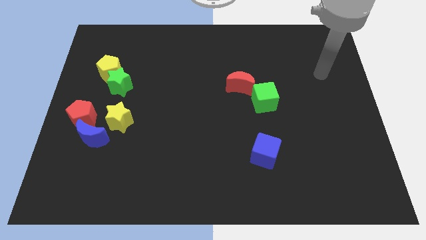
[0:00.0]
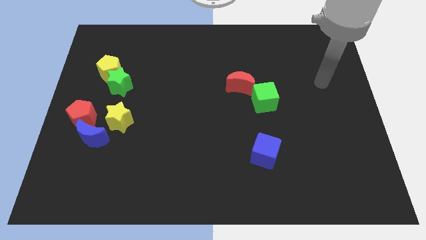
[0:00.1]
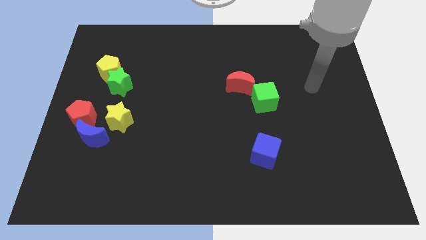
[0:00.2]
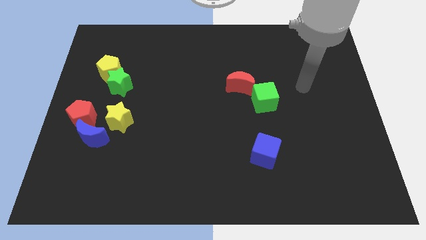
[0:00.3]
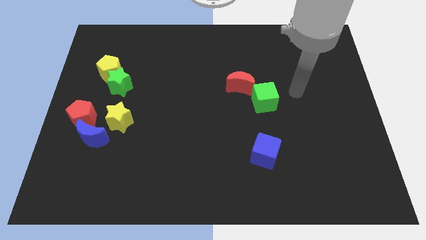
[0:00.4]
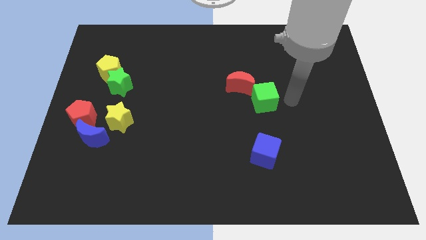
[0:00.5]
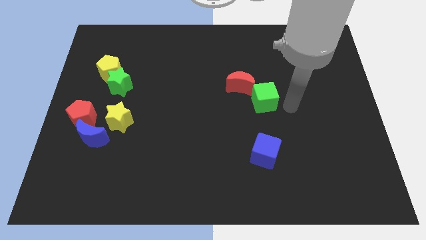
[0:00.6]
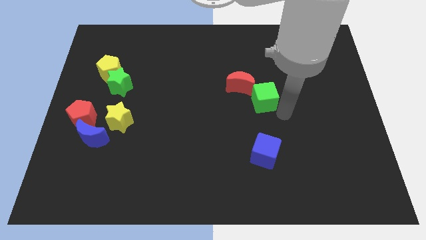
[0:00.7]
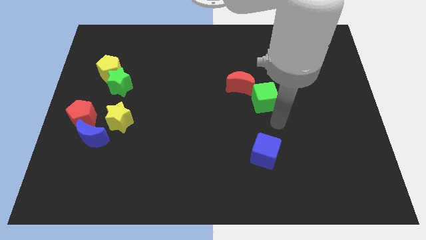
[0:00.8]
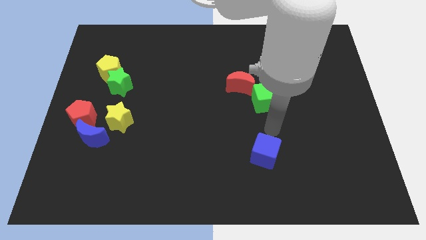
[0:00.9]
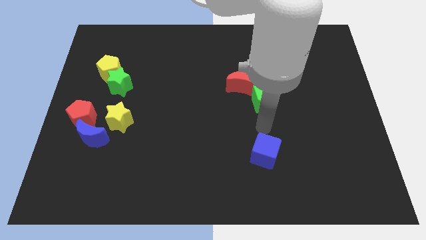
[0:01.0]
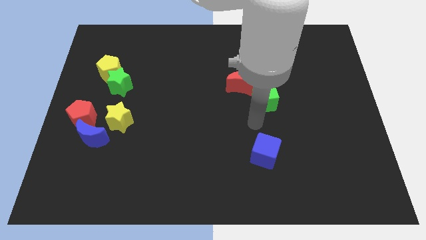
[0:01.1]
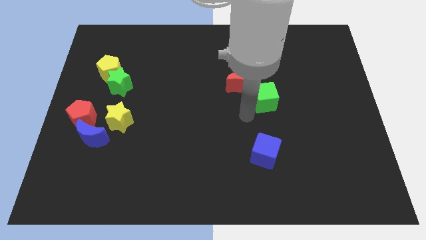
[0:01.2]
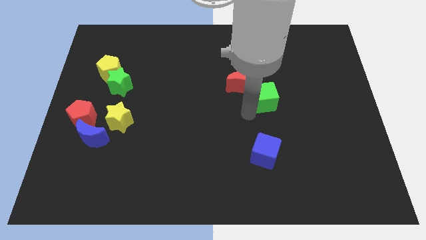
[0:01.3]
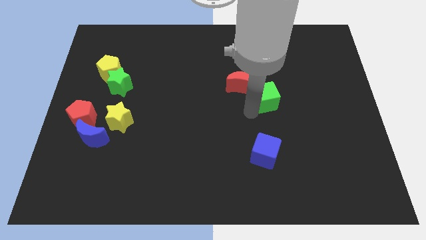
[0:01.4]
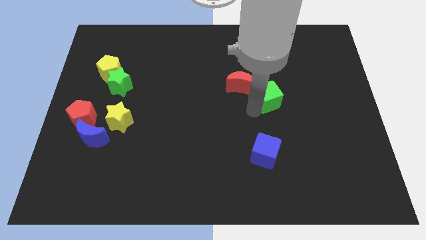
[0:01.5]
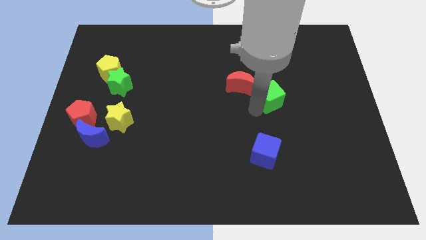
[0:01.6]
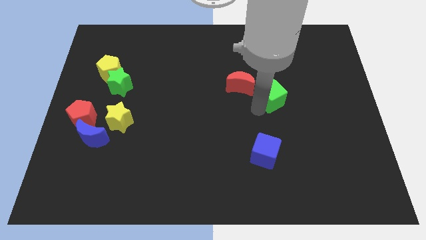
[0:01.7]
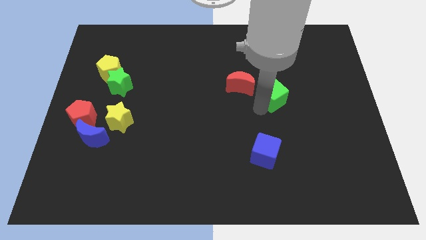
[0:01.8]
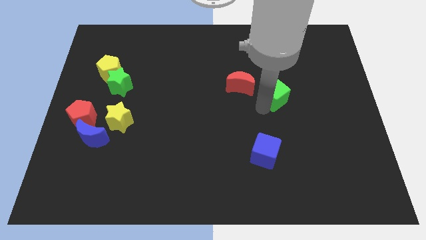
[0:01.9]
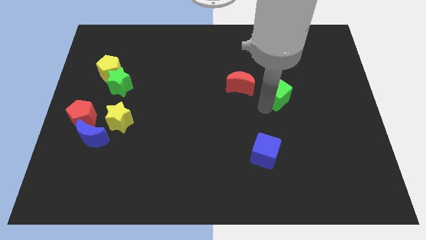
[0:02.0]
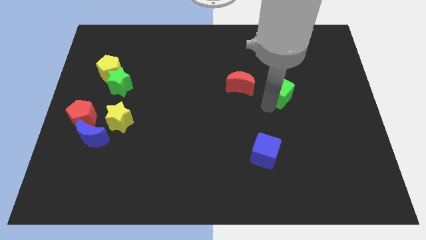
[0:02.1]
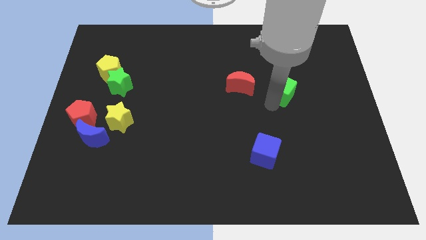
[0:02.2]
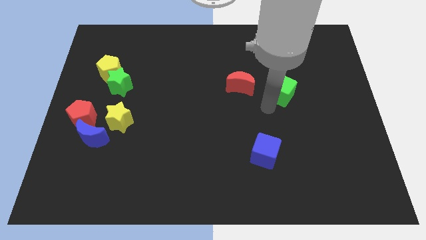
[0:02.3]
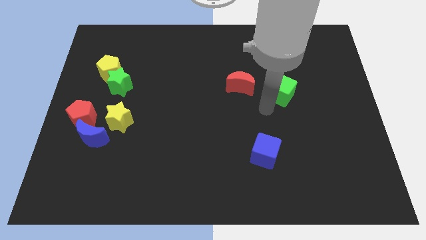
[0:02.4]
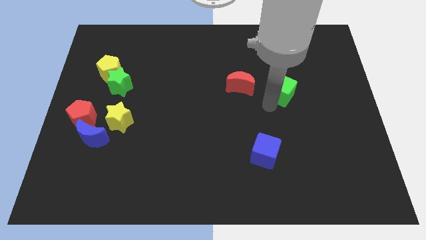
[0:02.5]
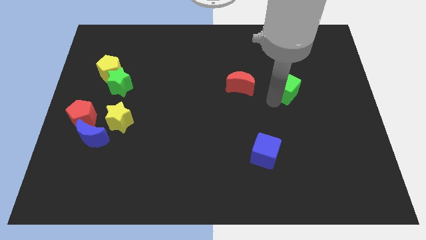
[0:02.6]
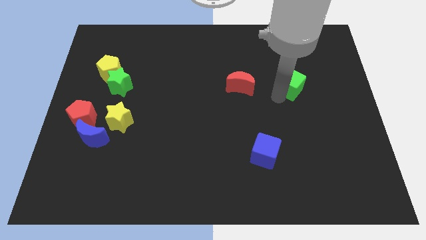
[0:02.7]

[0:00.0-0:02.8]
push the green cube up and right a little

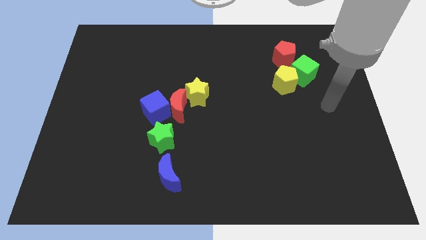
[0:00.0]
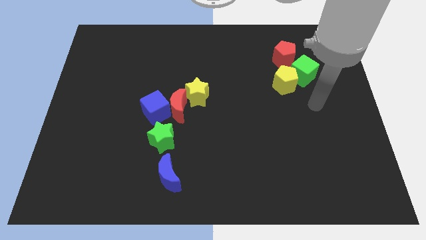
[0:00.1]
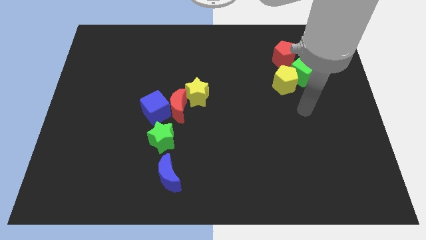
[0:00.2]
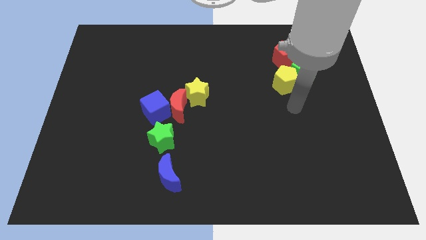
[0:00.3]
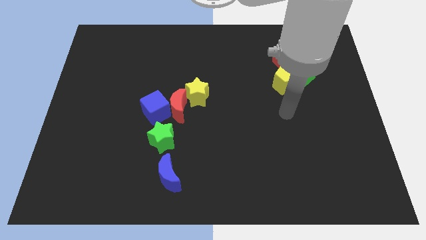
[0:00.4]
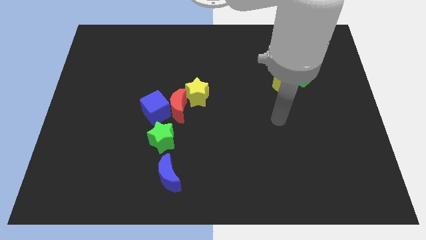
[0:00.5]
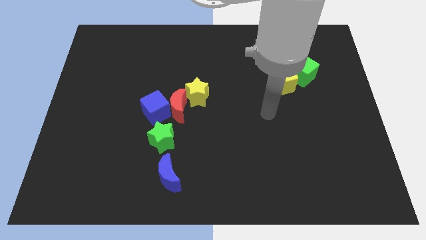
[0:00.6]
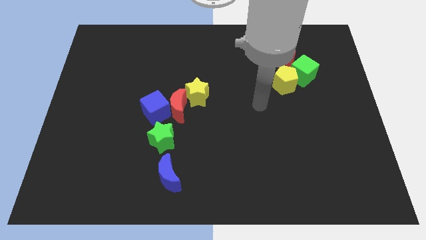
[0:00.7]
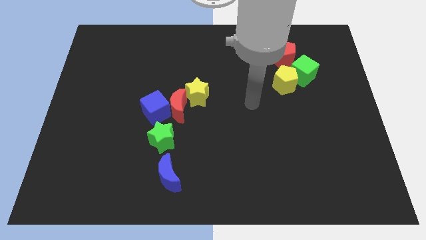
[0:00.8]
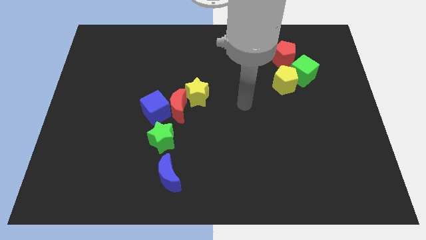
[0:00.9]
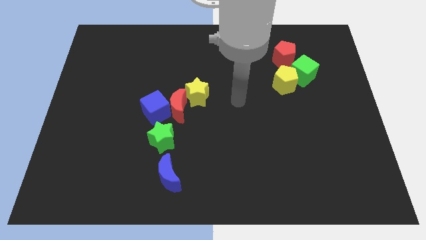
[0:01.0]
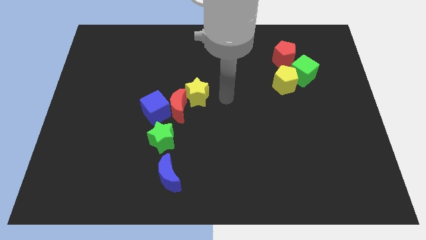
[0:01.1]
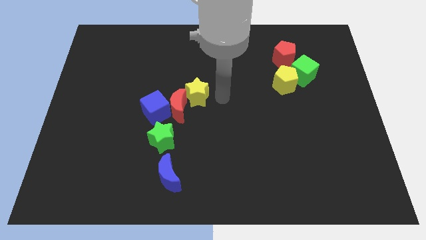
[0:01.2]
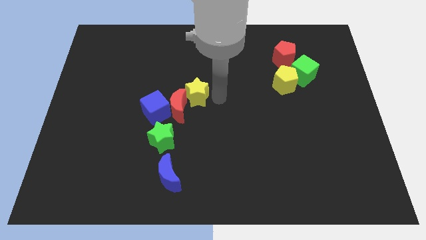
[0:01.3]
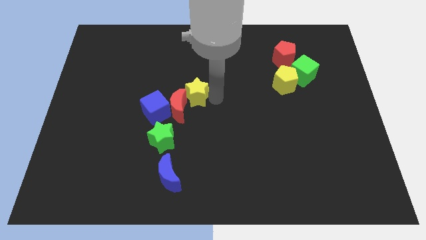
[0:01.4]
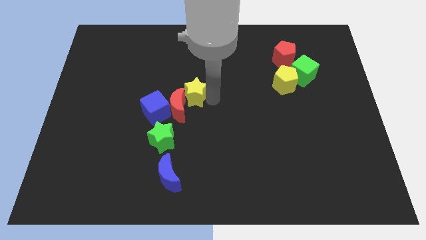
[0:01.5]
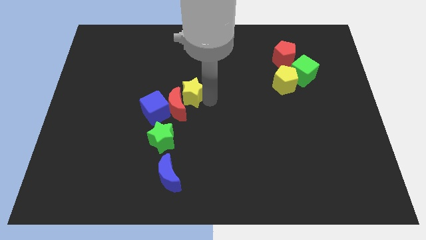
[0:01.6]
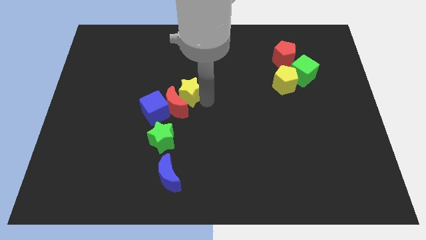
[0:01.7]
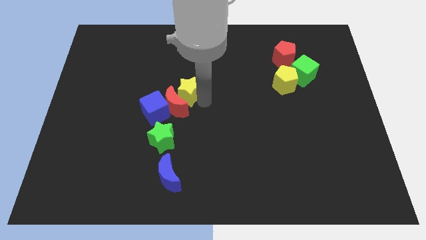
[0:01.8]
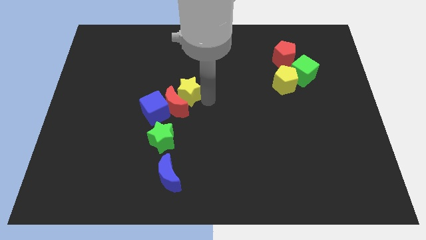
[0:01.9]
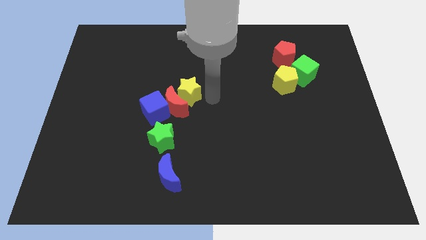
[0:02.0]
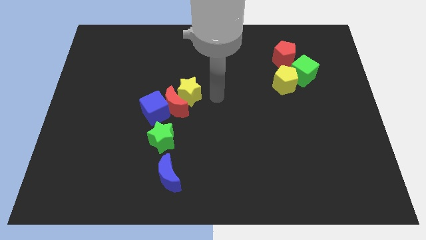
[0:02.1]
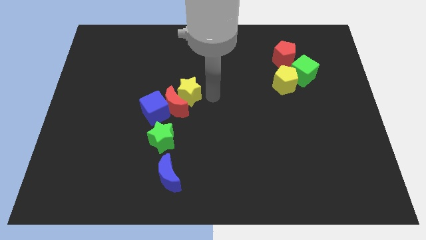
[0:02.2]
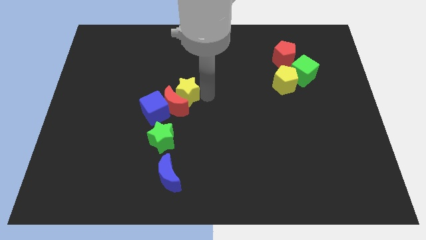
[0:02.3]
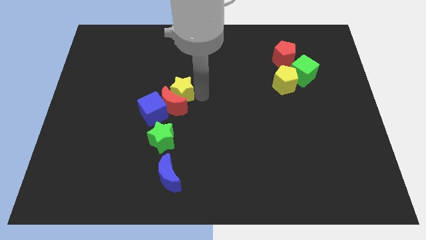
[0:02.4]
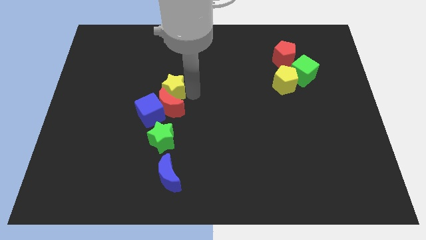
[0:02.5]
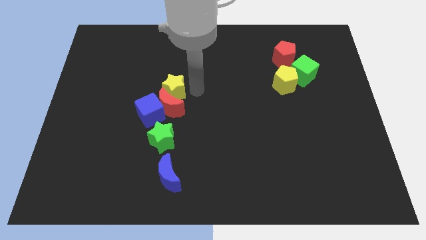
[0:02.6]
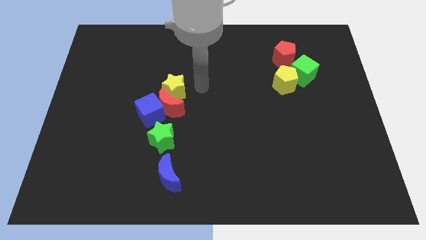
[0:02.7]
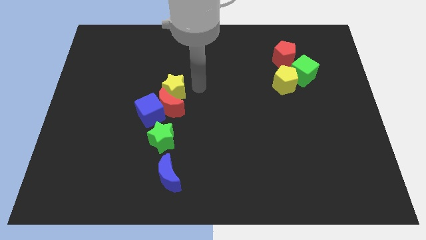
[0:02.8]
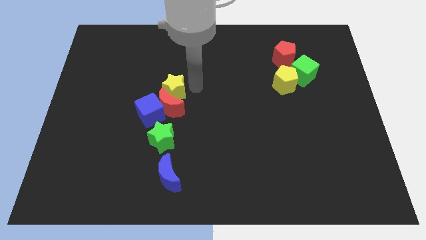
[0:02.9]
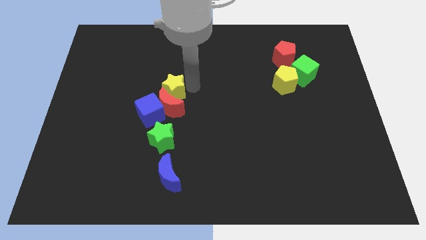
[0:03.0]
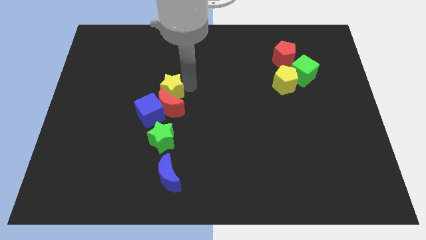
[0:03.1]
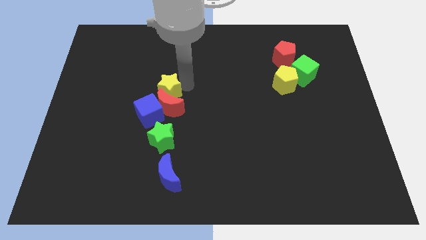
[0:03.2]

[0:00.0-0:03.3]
move the yellow star a little left

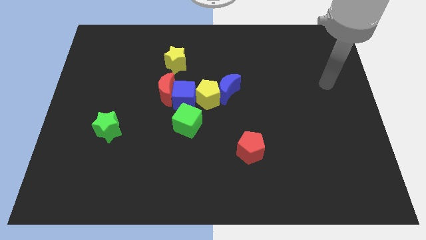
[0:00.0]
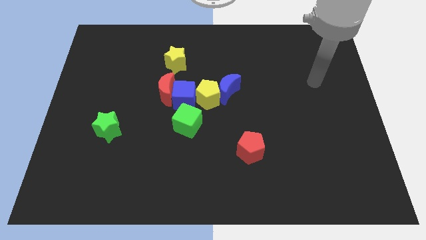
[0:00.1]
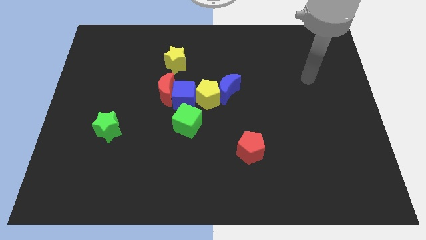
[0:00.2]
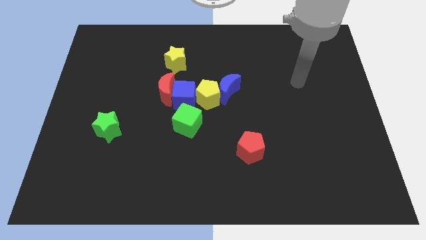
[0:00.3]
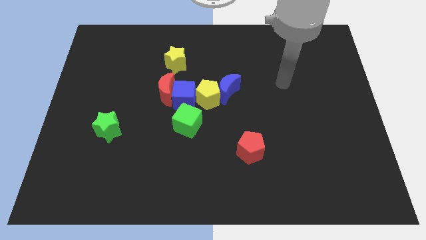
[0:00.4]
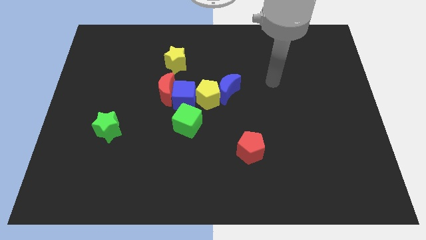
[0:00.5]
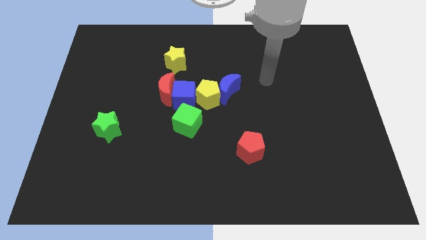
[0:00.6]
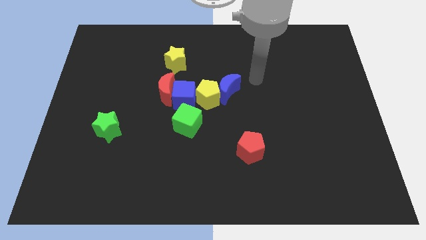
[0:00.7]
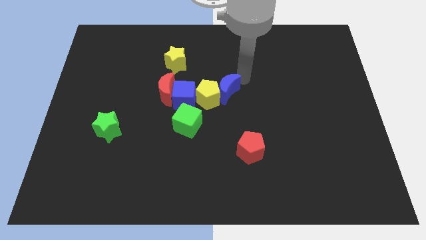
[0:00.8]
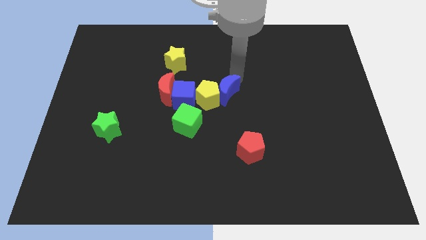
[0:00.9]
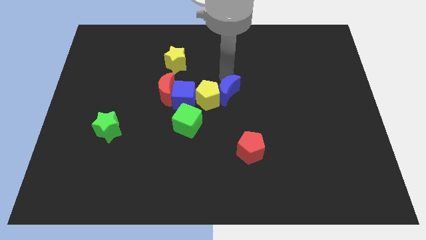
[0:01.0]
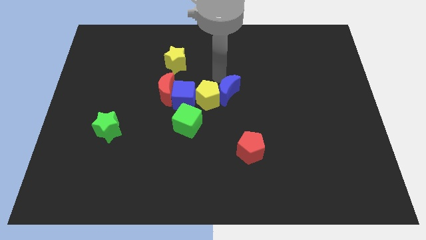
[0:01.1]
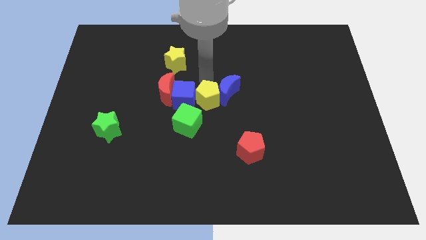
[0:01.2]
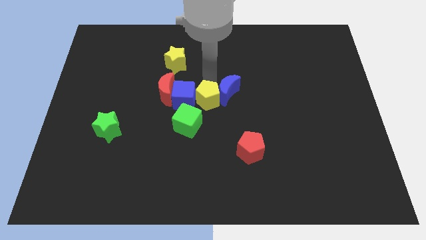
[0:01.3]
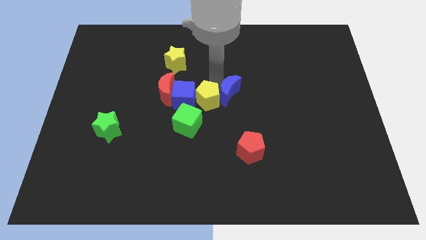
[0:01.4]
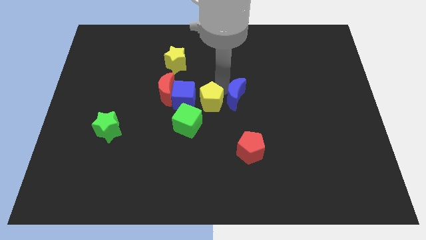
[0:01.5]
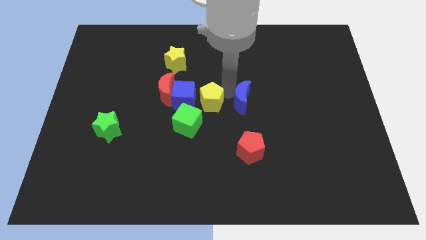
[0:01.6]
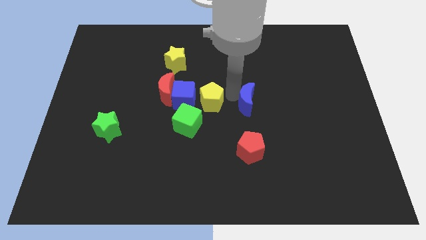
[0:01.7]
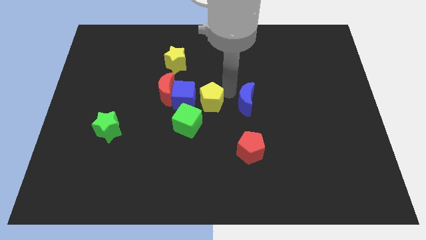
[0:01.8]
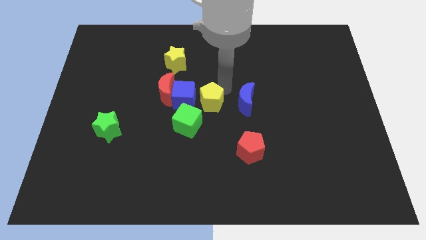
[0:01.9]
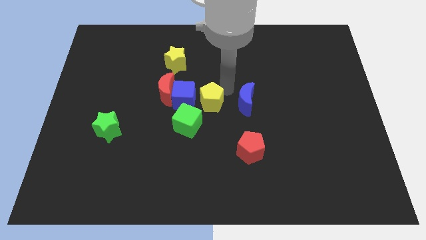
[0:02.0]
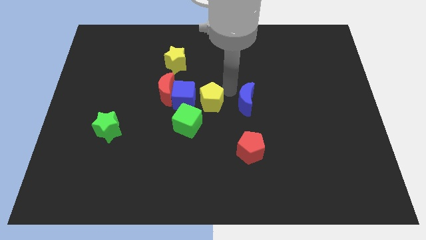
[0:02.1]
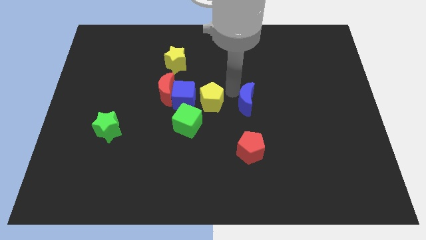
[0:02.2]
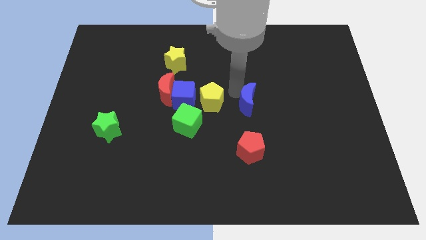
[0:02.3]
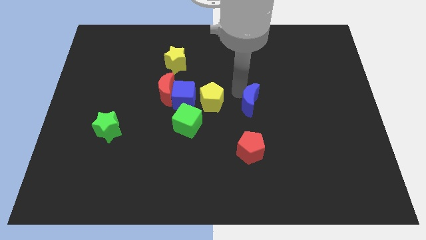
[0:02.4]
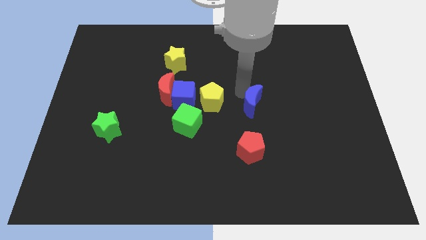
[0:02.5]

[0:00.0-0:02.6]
slide the blue moon a little bit downwards and right
